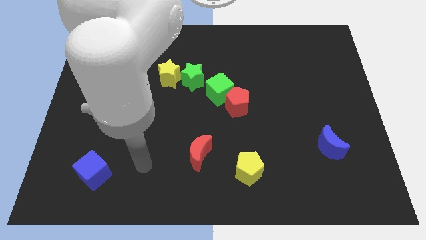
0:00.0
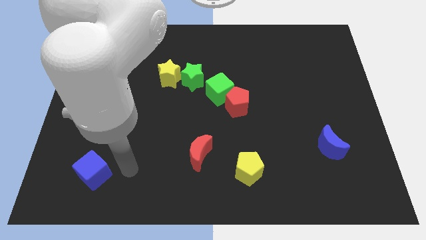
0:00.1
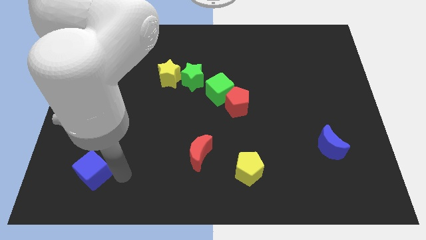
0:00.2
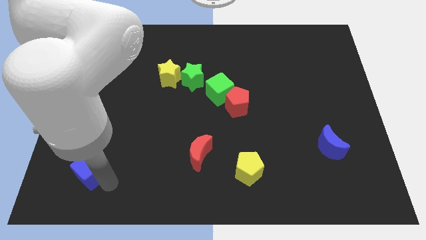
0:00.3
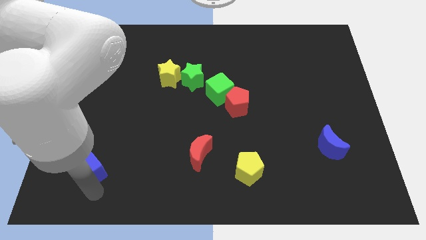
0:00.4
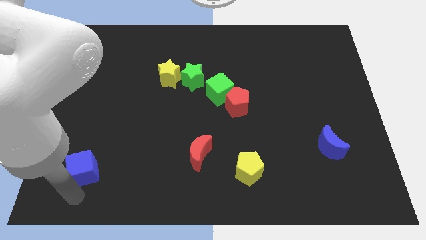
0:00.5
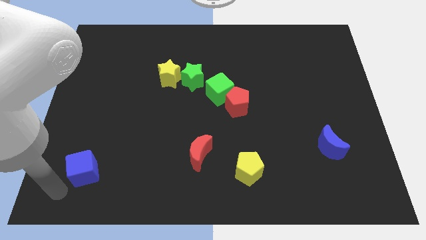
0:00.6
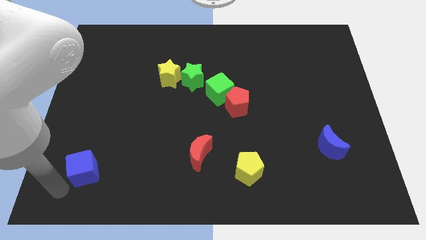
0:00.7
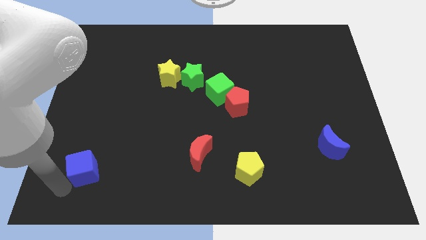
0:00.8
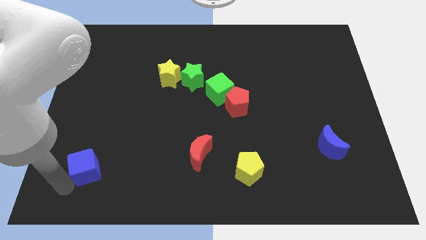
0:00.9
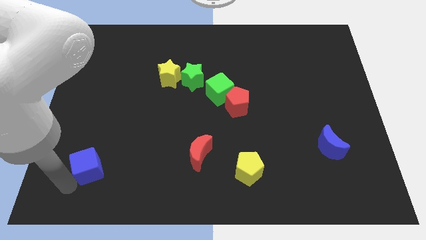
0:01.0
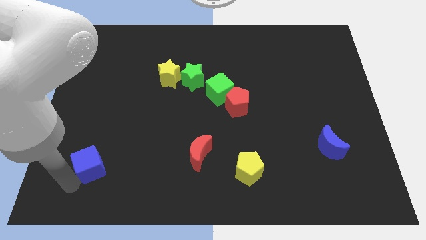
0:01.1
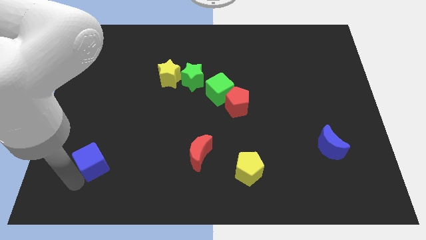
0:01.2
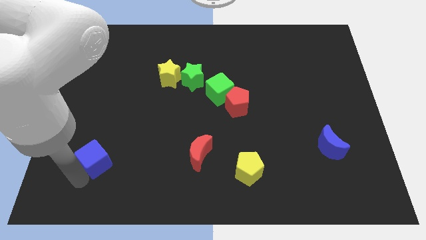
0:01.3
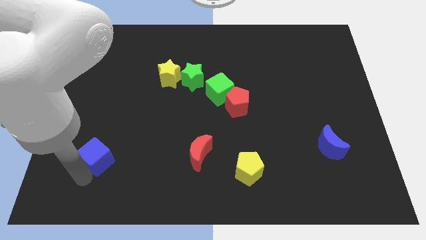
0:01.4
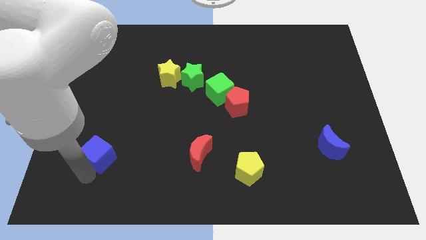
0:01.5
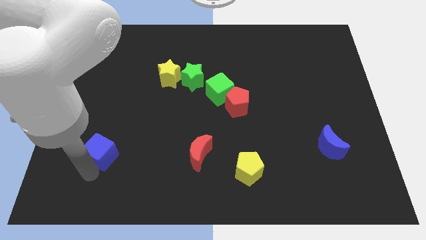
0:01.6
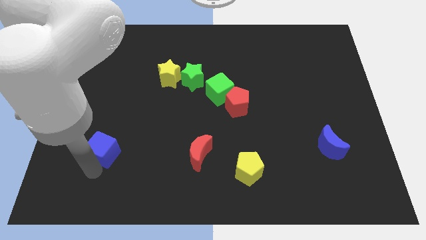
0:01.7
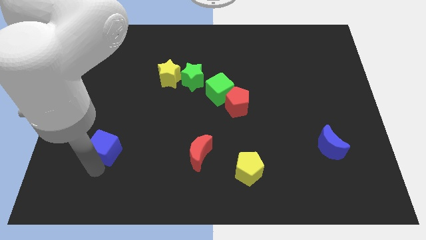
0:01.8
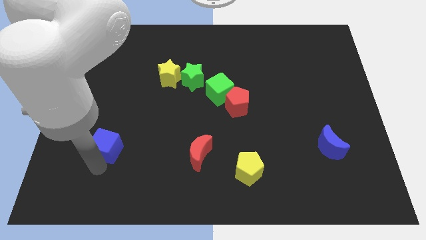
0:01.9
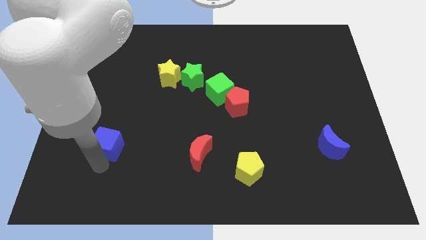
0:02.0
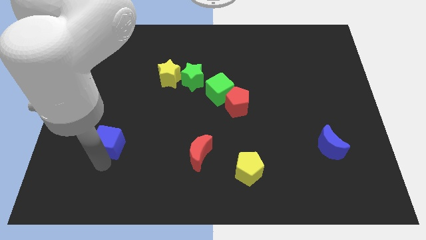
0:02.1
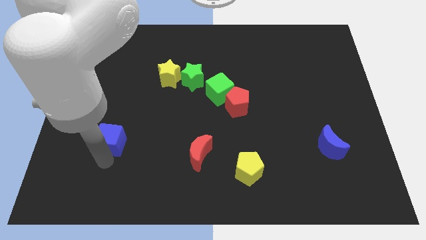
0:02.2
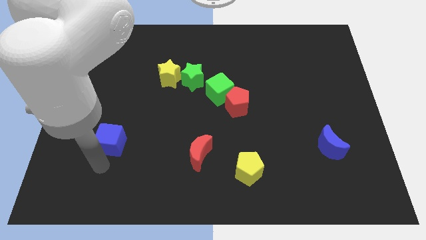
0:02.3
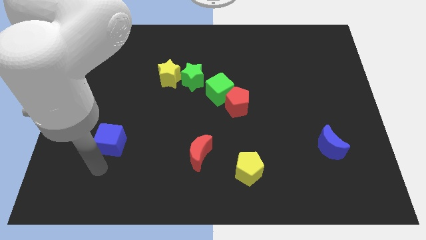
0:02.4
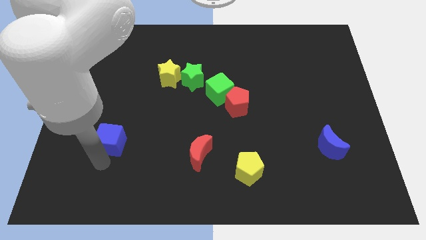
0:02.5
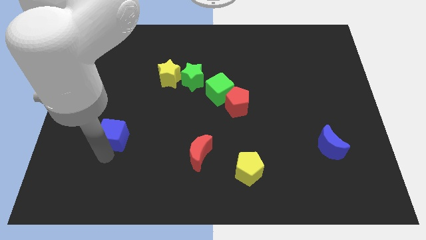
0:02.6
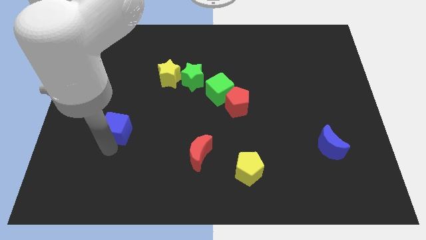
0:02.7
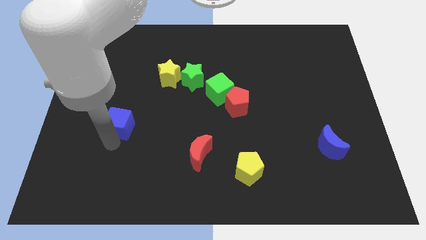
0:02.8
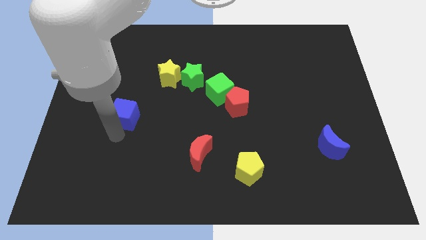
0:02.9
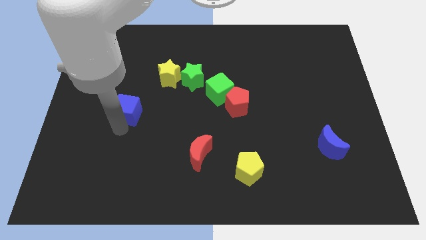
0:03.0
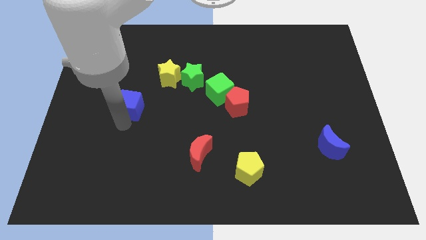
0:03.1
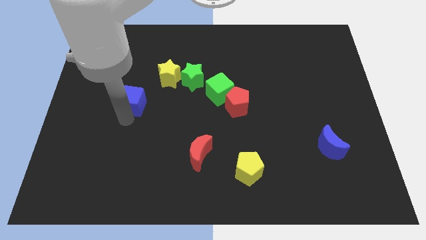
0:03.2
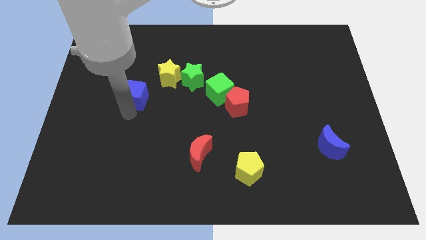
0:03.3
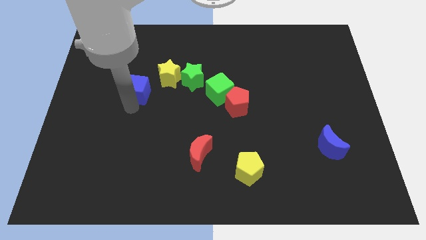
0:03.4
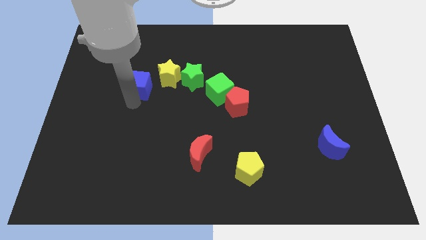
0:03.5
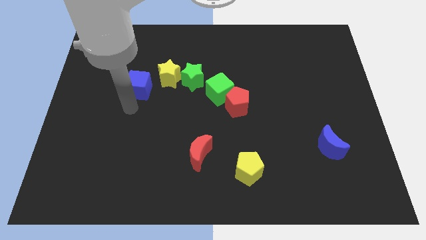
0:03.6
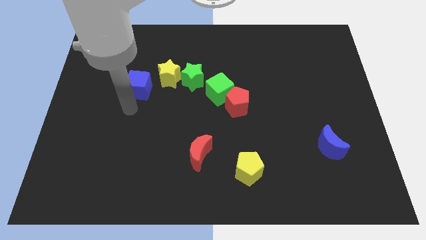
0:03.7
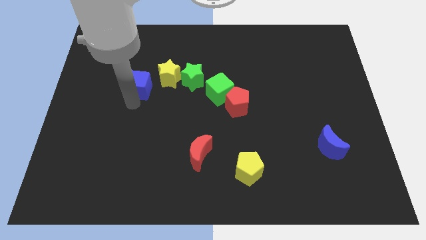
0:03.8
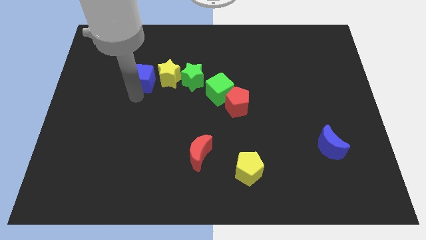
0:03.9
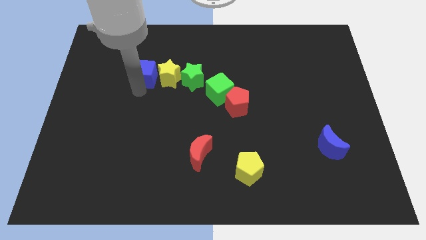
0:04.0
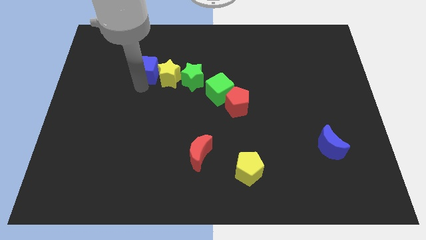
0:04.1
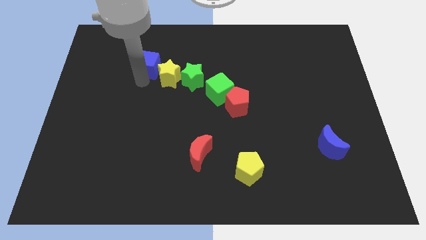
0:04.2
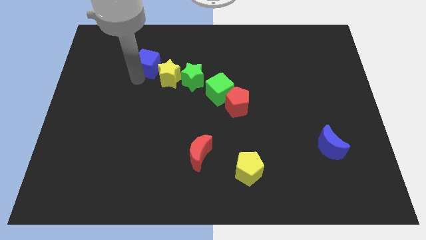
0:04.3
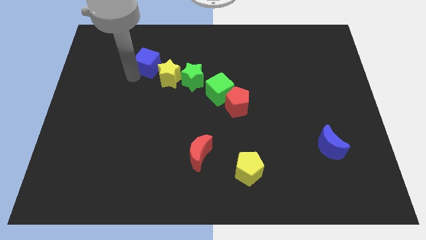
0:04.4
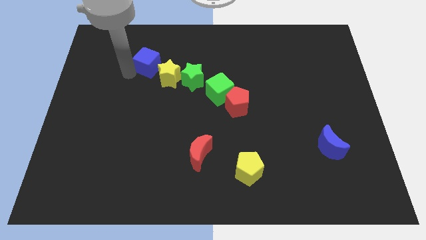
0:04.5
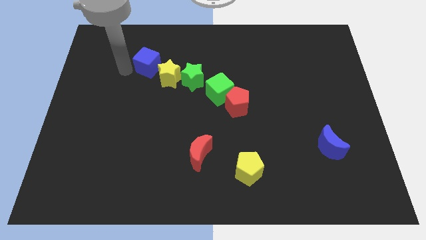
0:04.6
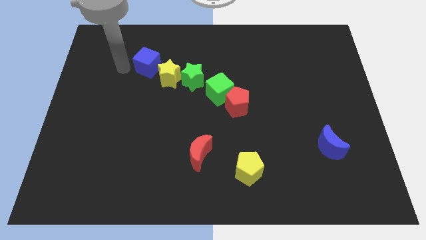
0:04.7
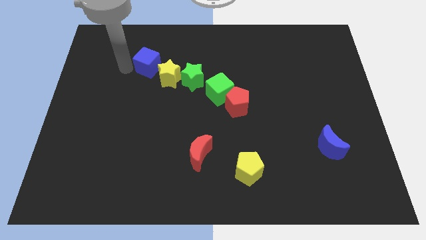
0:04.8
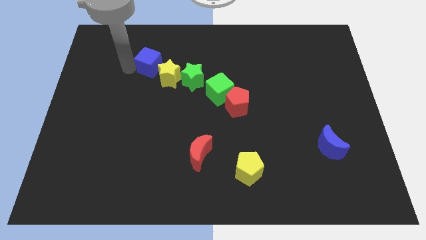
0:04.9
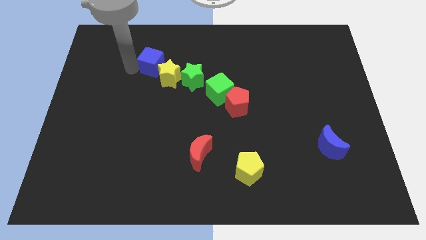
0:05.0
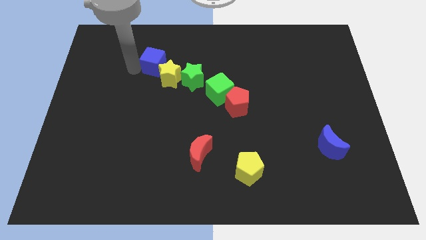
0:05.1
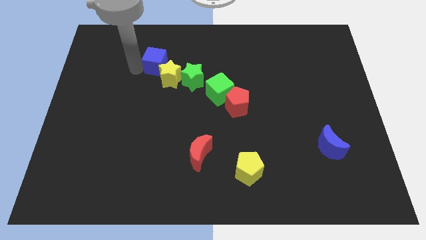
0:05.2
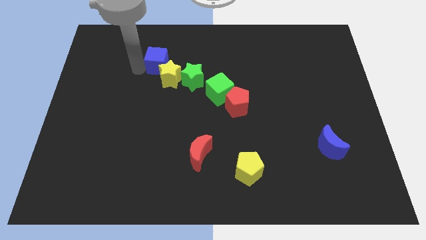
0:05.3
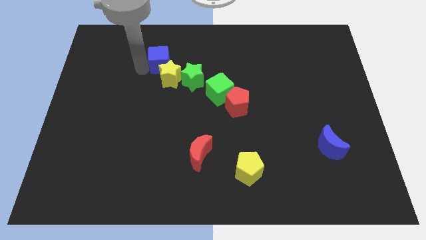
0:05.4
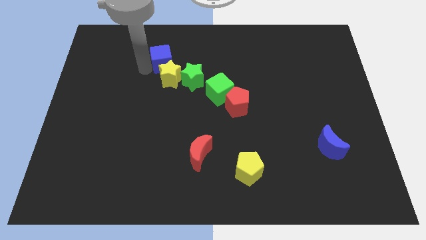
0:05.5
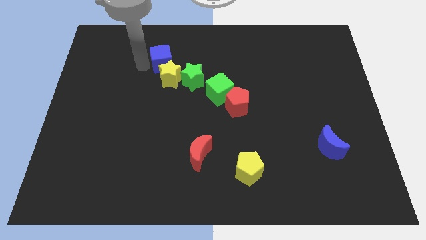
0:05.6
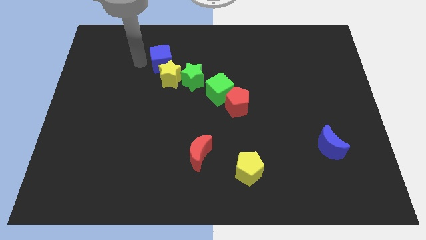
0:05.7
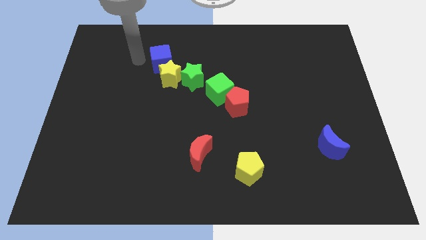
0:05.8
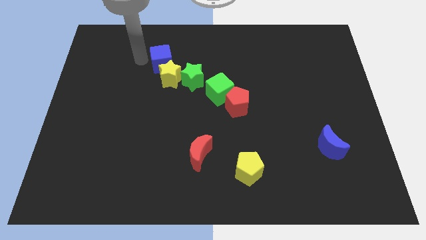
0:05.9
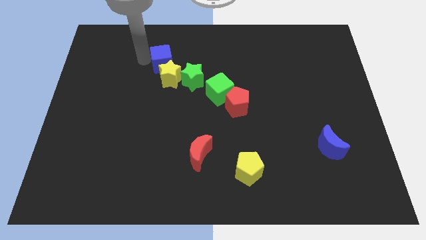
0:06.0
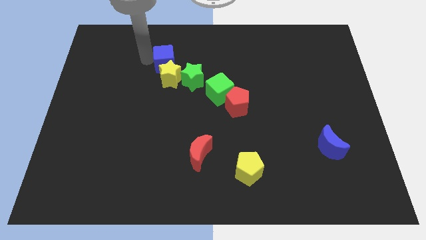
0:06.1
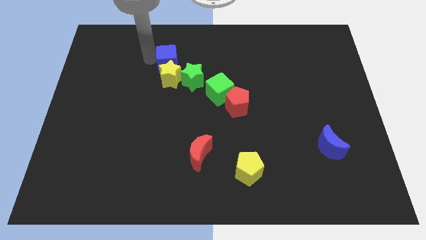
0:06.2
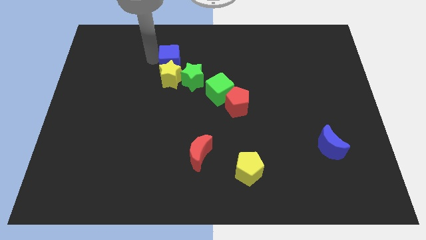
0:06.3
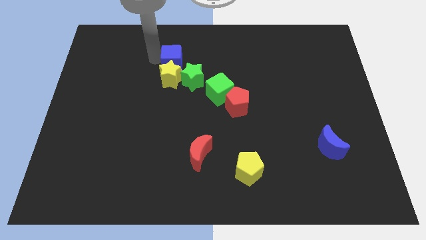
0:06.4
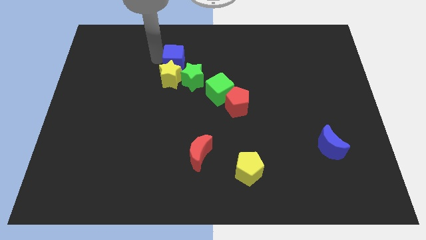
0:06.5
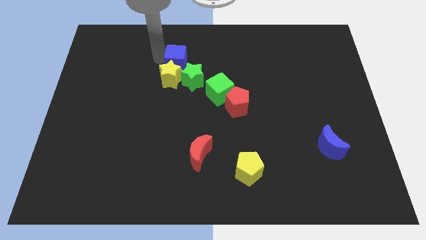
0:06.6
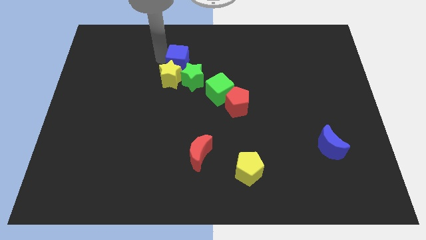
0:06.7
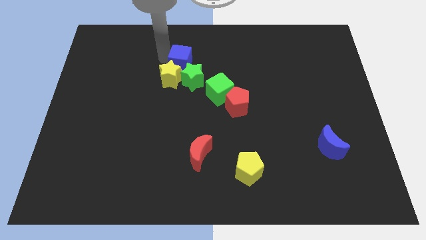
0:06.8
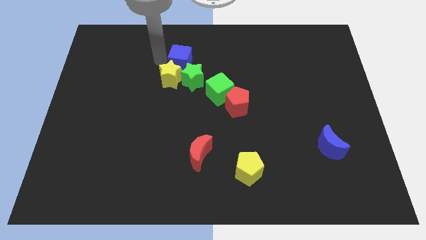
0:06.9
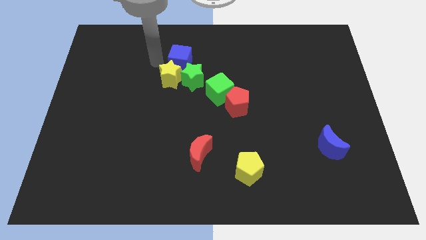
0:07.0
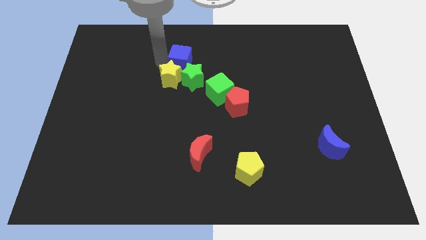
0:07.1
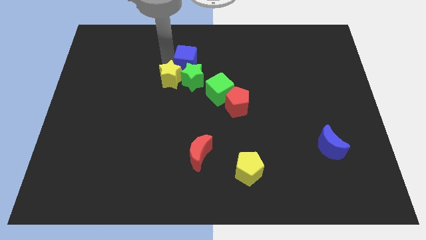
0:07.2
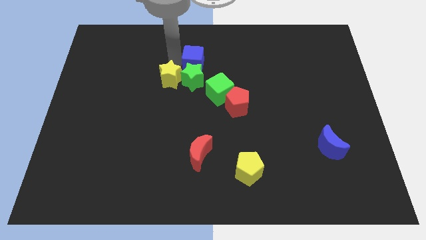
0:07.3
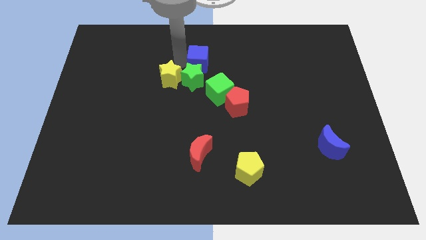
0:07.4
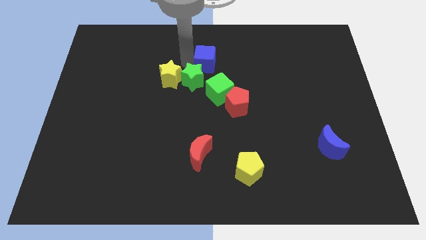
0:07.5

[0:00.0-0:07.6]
push the blue cube above the green cube
